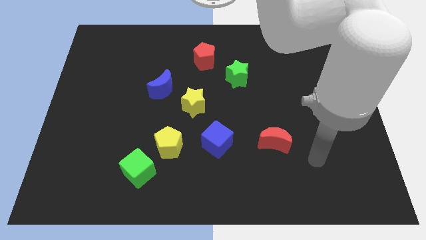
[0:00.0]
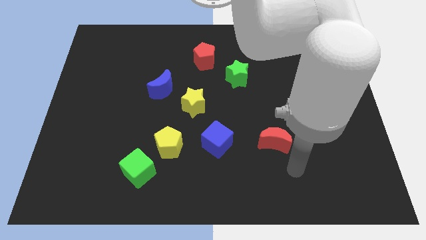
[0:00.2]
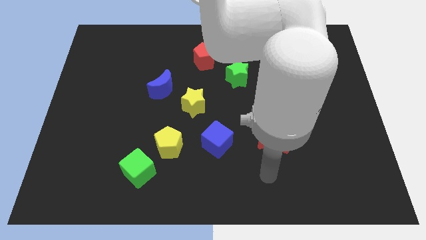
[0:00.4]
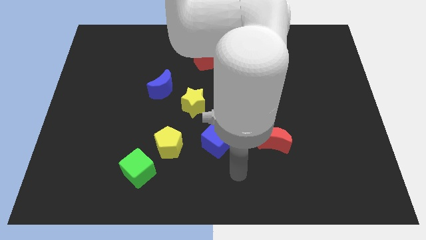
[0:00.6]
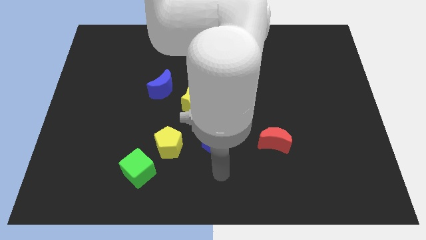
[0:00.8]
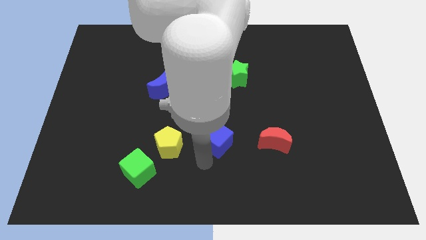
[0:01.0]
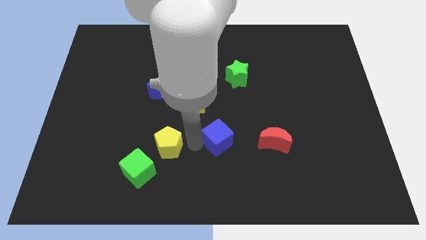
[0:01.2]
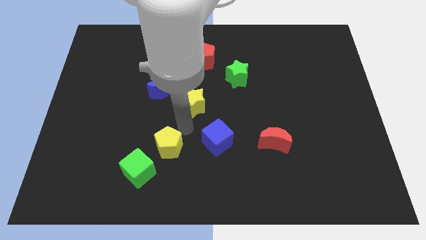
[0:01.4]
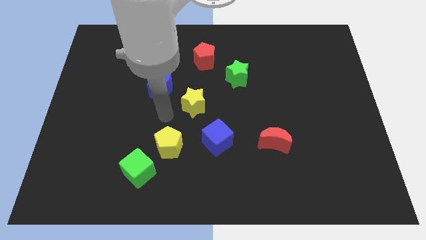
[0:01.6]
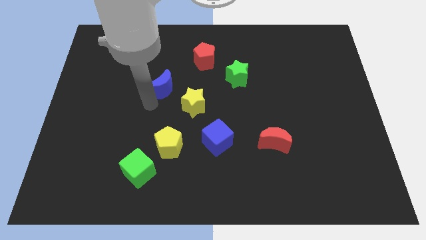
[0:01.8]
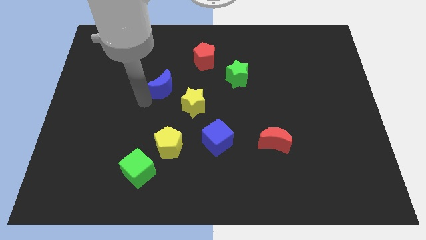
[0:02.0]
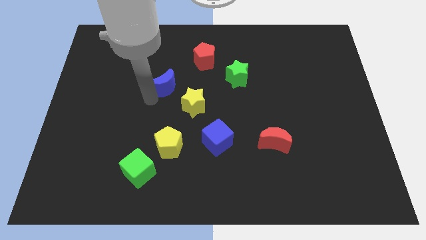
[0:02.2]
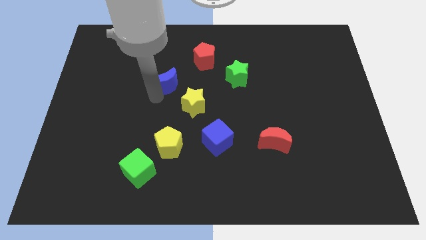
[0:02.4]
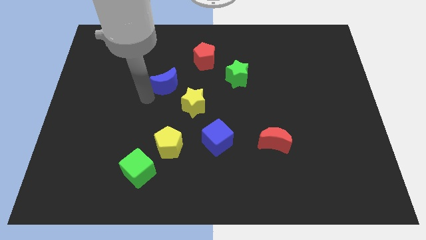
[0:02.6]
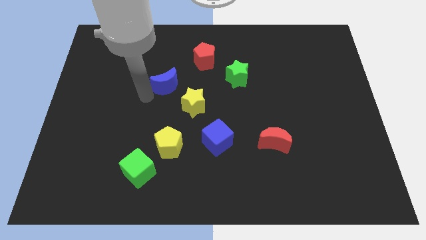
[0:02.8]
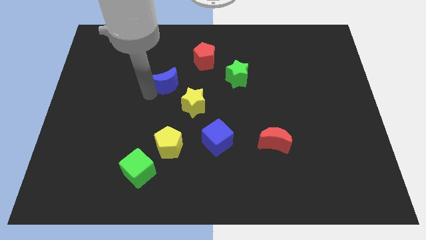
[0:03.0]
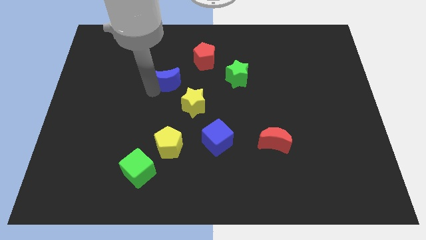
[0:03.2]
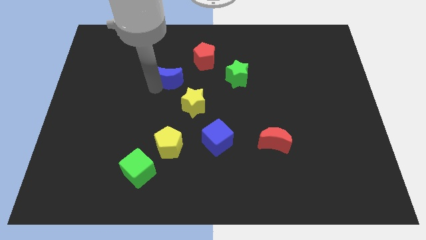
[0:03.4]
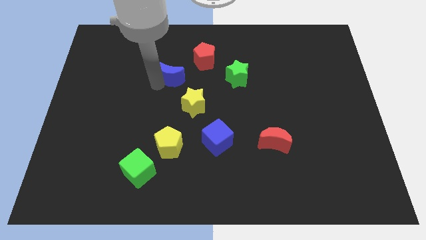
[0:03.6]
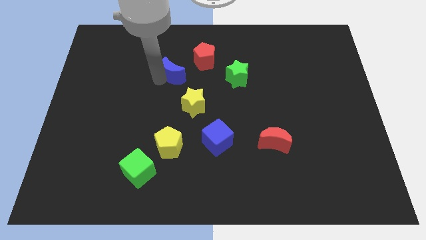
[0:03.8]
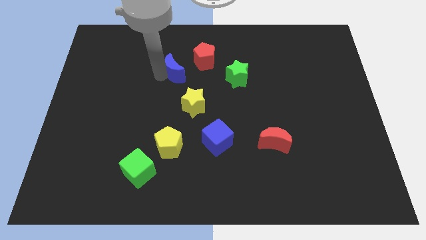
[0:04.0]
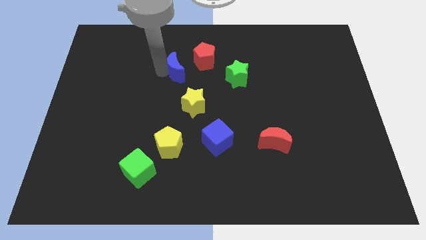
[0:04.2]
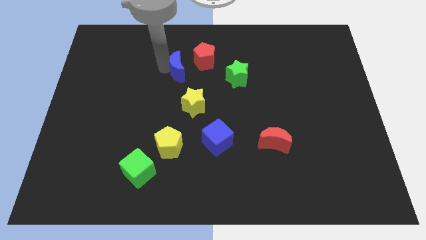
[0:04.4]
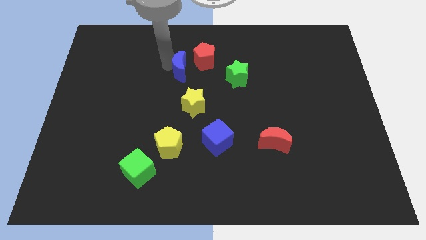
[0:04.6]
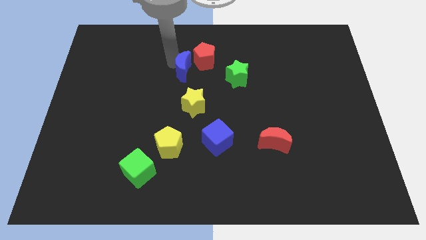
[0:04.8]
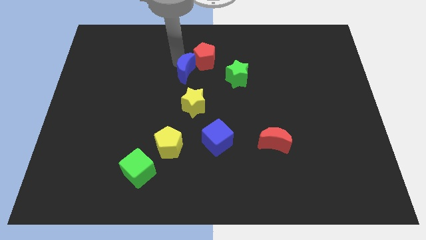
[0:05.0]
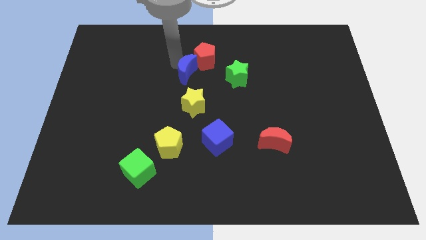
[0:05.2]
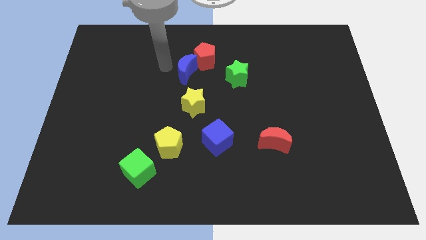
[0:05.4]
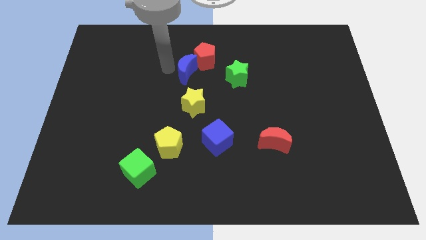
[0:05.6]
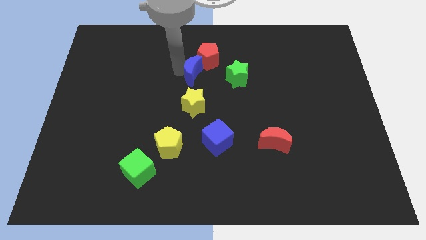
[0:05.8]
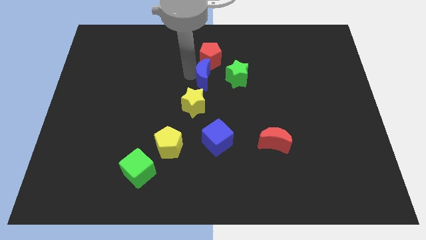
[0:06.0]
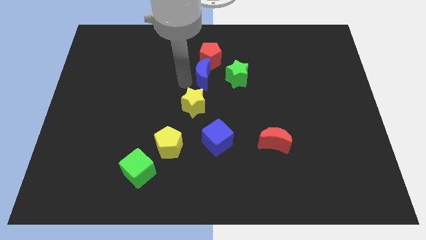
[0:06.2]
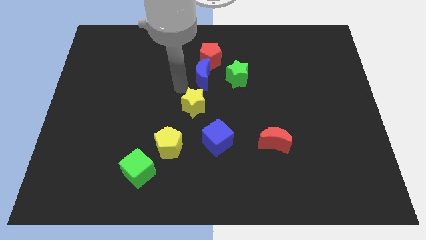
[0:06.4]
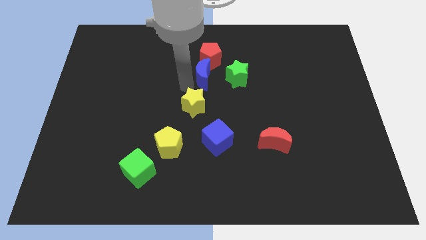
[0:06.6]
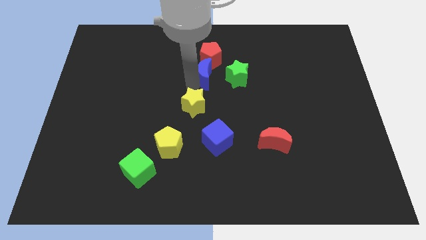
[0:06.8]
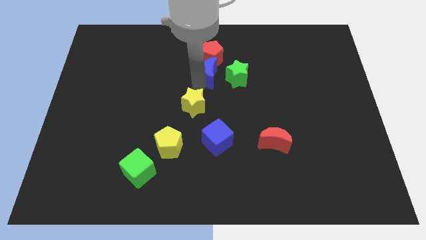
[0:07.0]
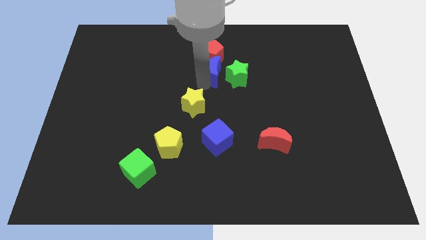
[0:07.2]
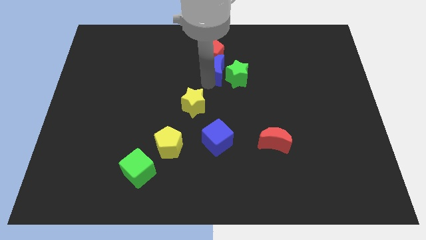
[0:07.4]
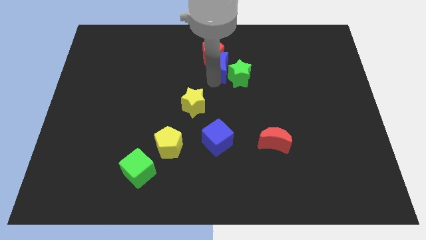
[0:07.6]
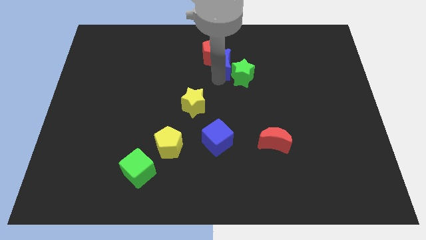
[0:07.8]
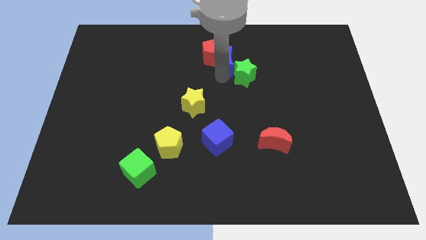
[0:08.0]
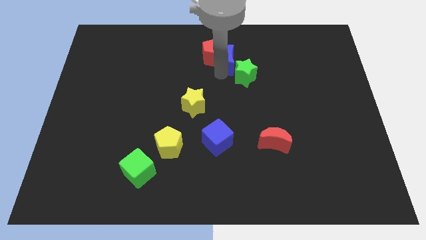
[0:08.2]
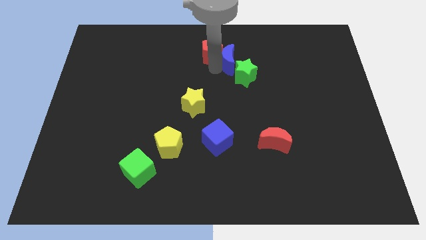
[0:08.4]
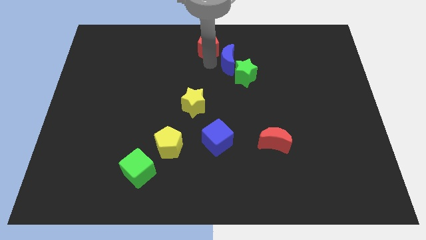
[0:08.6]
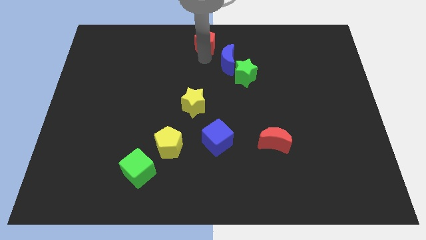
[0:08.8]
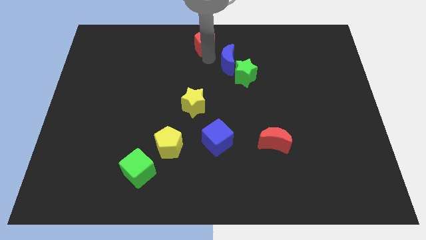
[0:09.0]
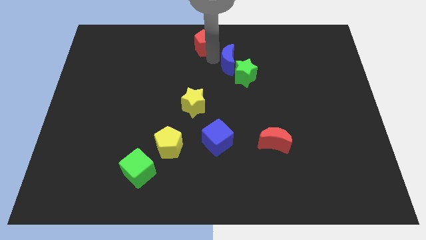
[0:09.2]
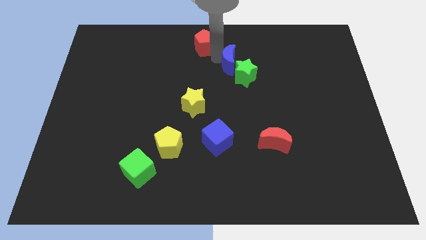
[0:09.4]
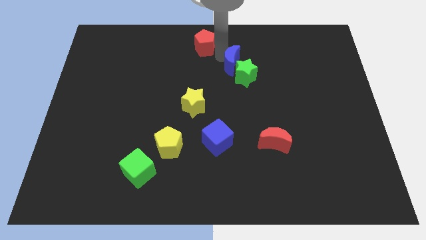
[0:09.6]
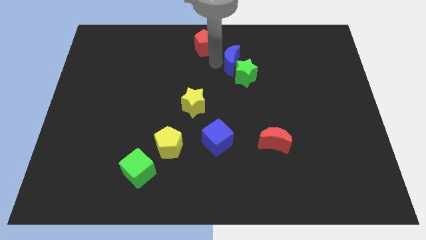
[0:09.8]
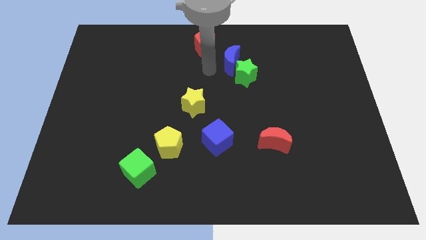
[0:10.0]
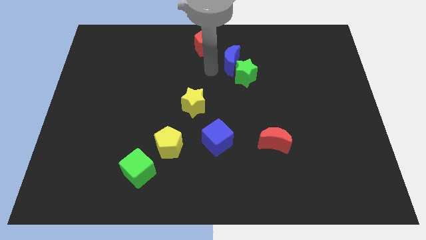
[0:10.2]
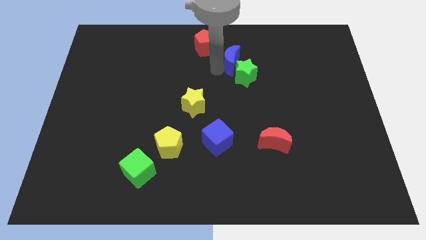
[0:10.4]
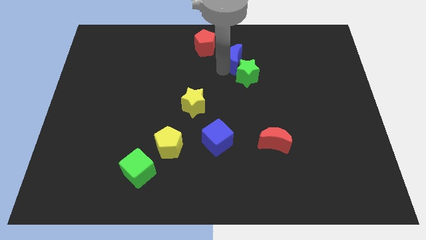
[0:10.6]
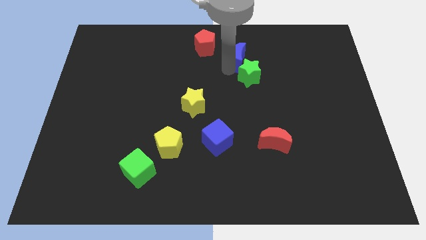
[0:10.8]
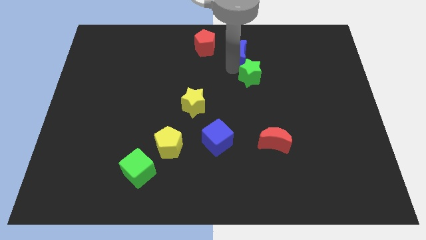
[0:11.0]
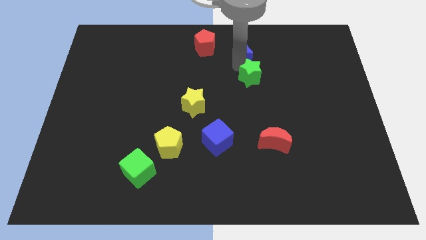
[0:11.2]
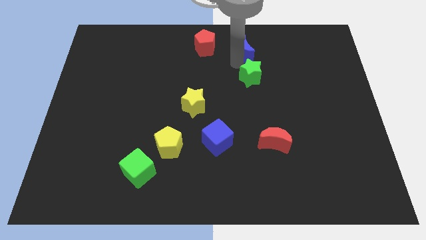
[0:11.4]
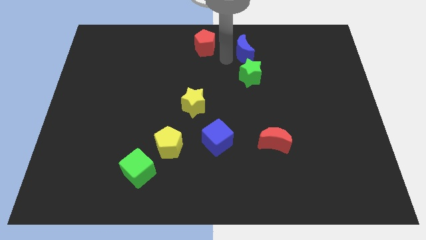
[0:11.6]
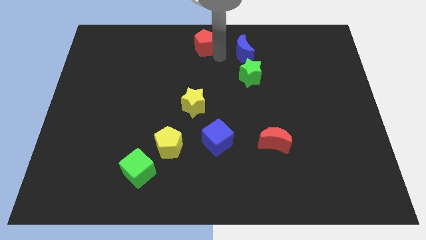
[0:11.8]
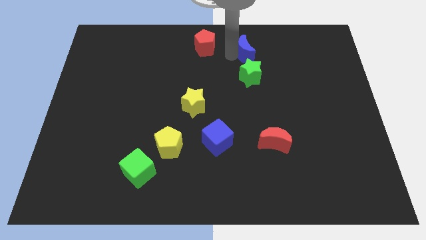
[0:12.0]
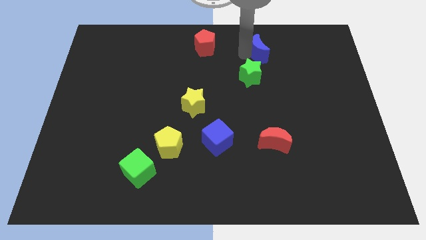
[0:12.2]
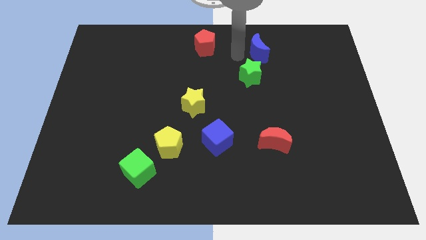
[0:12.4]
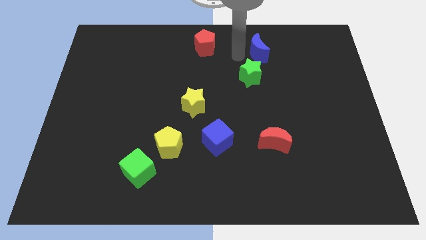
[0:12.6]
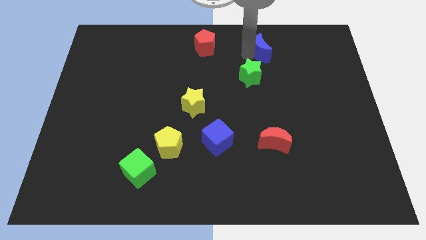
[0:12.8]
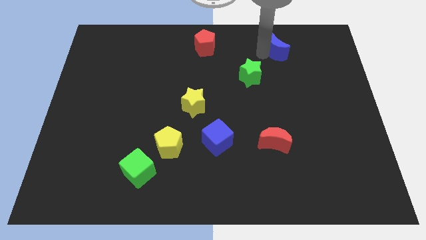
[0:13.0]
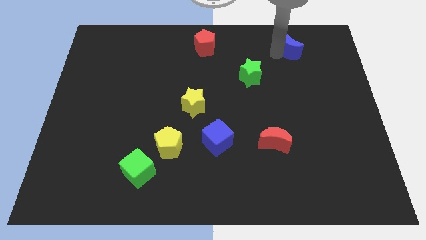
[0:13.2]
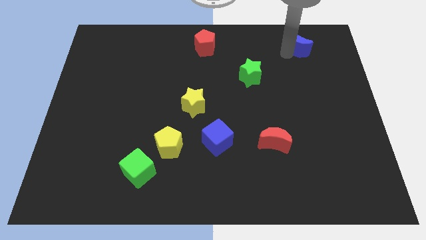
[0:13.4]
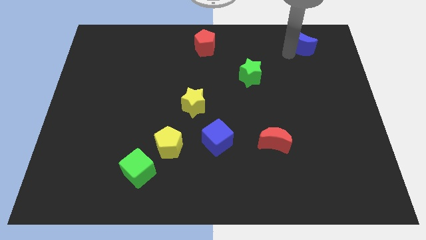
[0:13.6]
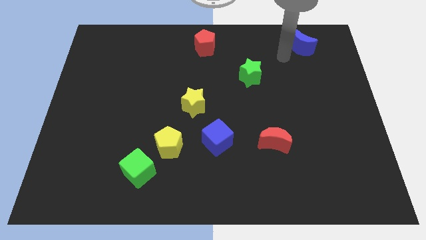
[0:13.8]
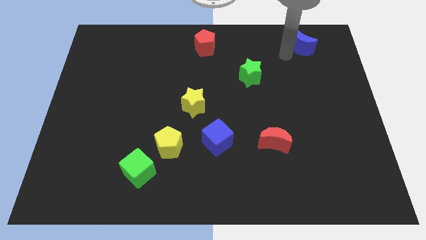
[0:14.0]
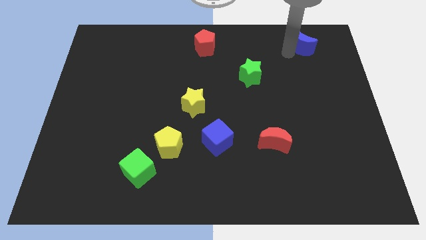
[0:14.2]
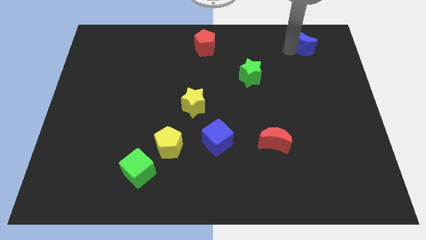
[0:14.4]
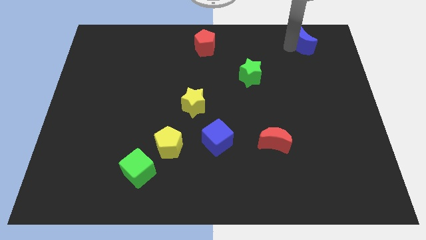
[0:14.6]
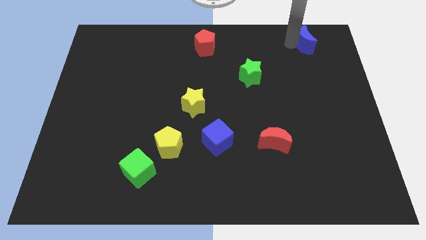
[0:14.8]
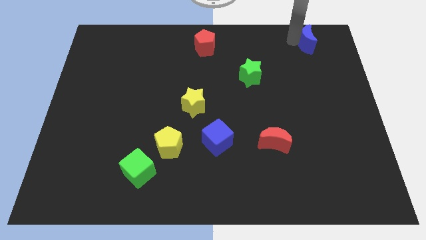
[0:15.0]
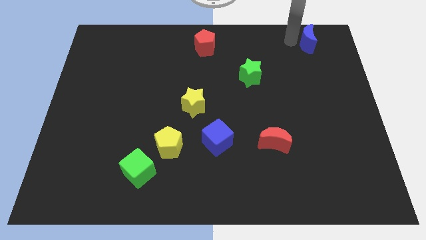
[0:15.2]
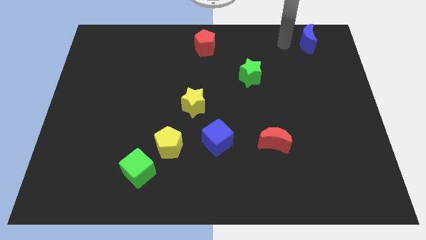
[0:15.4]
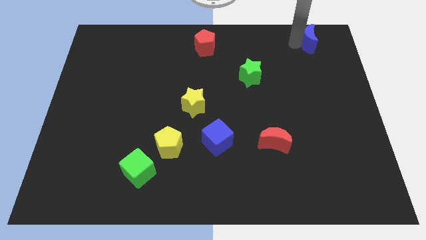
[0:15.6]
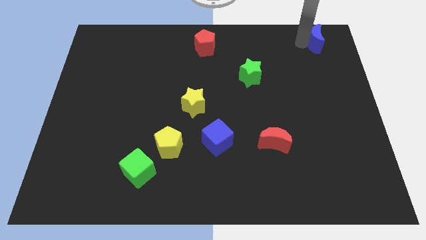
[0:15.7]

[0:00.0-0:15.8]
move the blue moon to the upper right corner
